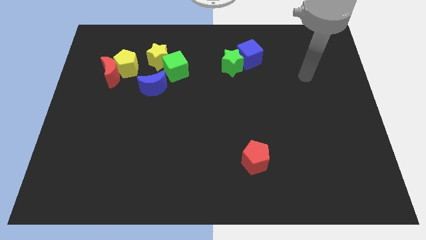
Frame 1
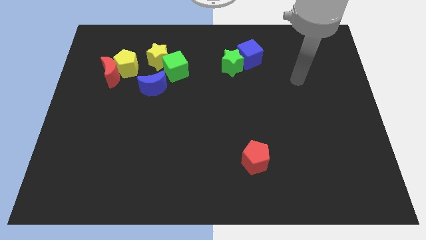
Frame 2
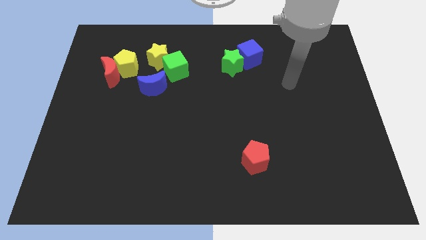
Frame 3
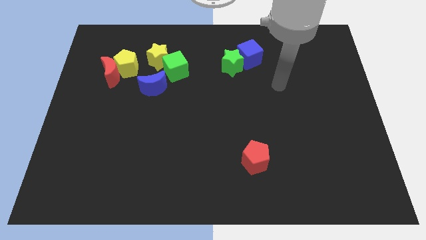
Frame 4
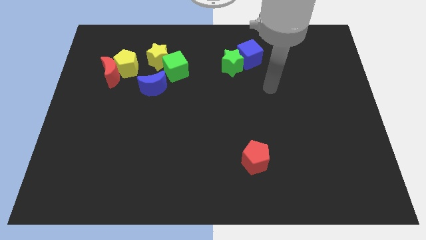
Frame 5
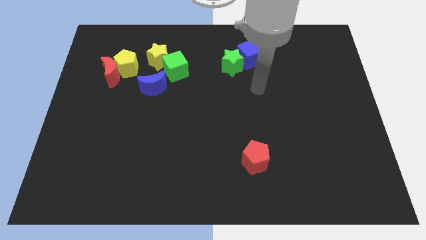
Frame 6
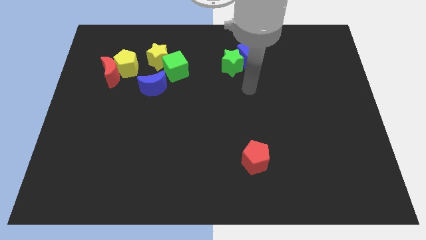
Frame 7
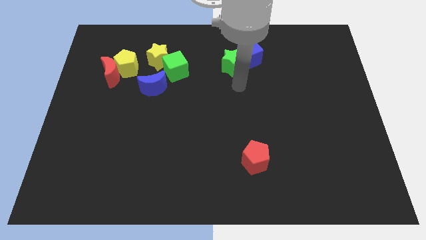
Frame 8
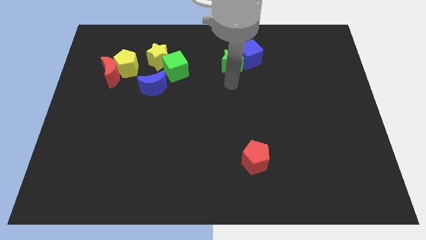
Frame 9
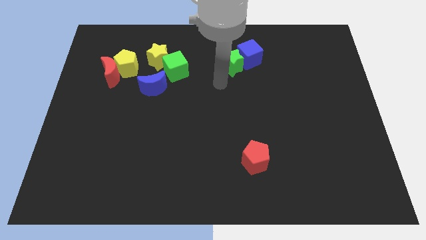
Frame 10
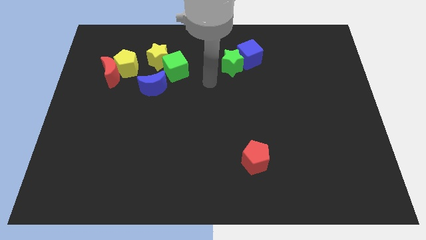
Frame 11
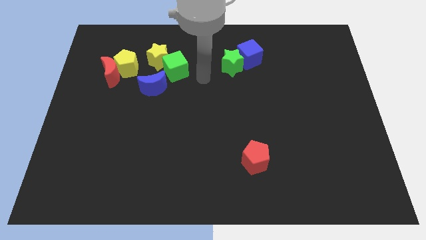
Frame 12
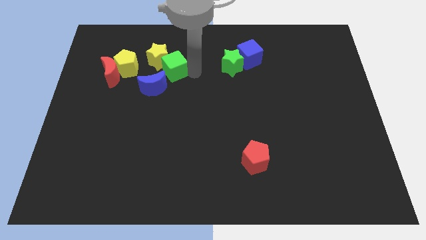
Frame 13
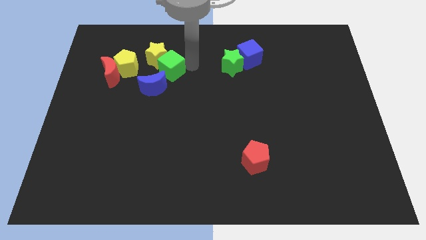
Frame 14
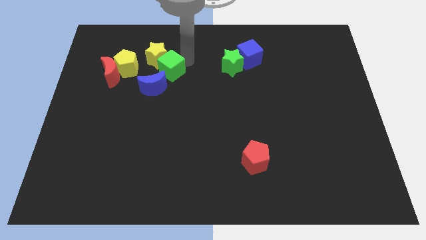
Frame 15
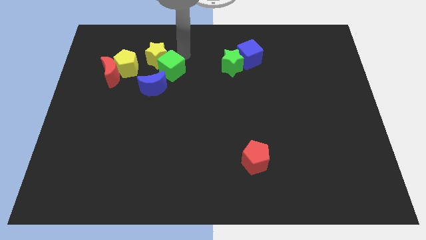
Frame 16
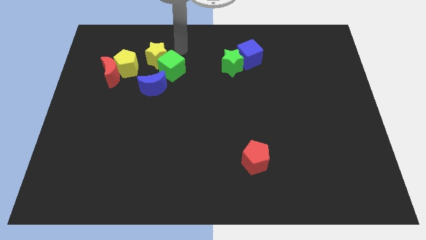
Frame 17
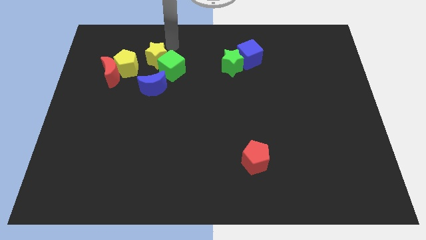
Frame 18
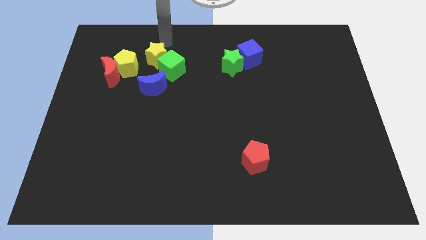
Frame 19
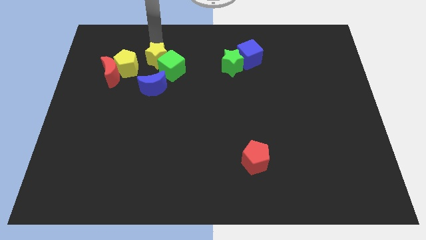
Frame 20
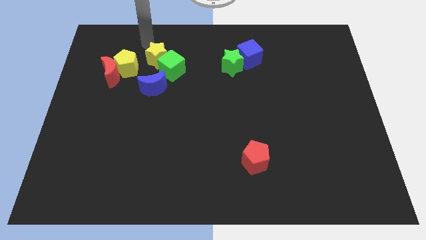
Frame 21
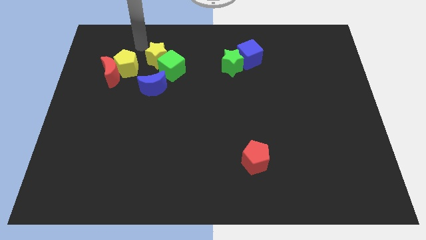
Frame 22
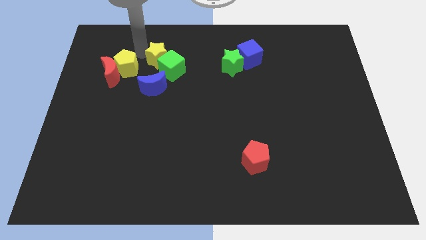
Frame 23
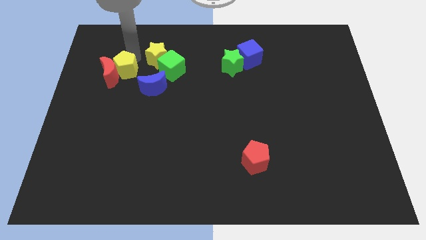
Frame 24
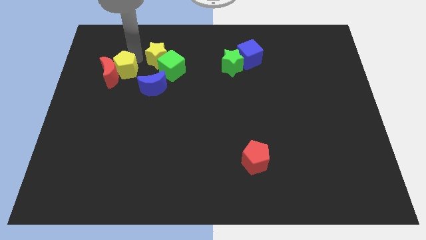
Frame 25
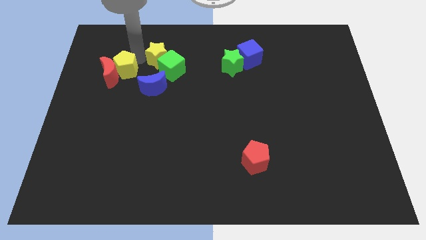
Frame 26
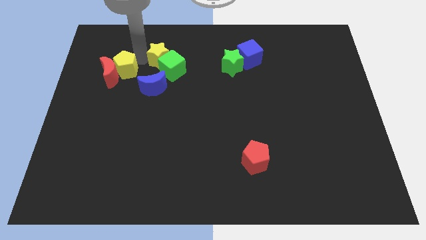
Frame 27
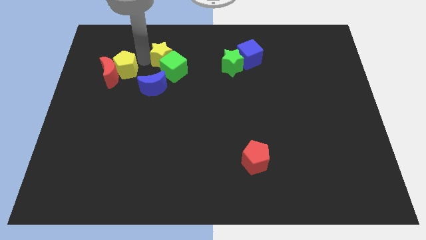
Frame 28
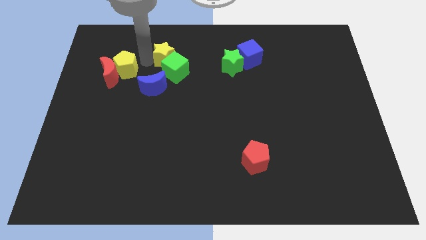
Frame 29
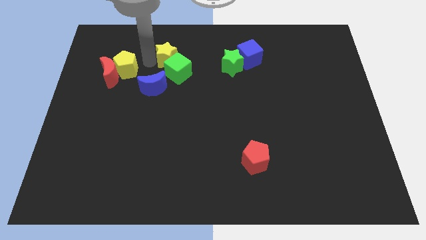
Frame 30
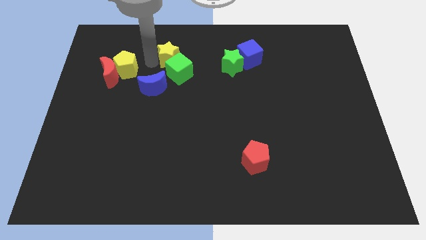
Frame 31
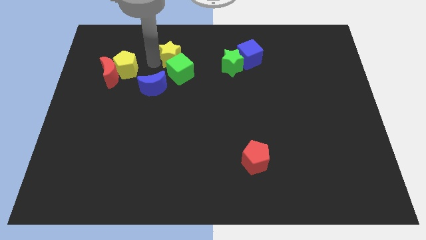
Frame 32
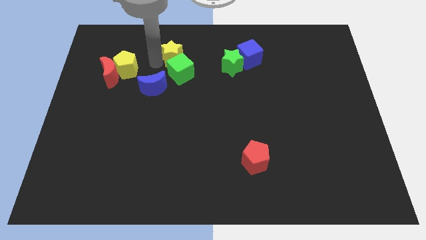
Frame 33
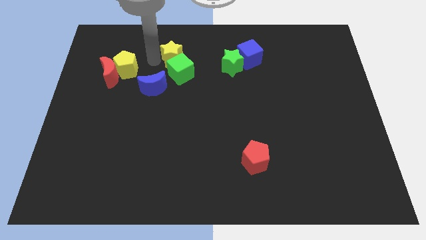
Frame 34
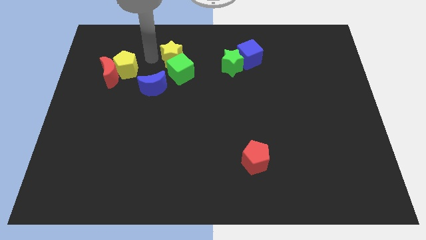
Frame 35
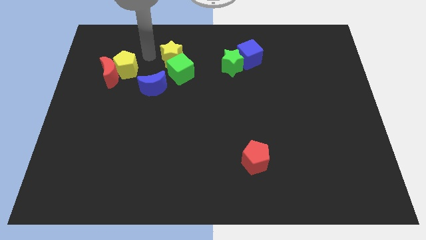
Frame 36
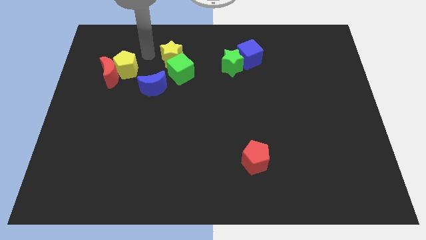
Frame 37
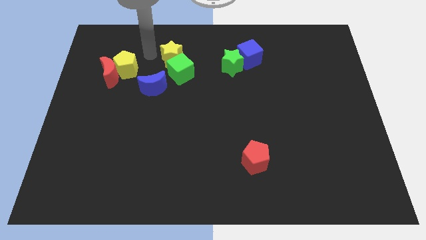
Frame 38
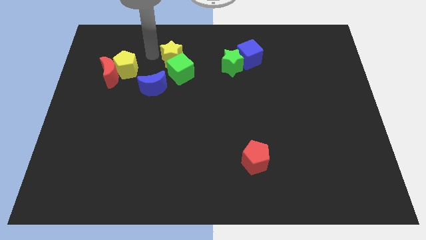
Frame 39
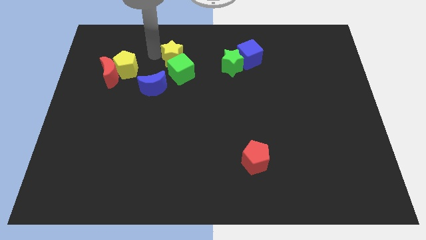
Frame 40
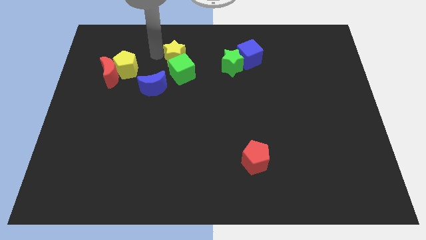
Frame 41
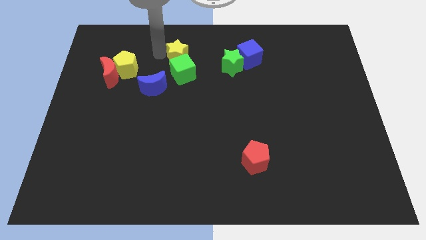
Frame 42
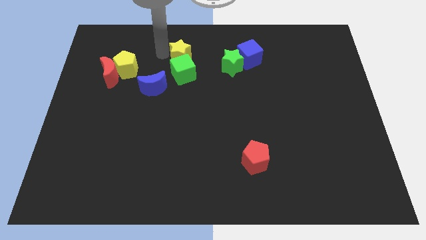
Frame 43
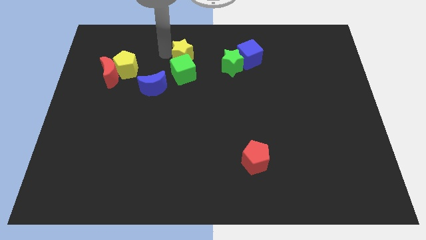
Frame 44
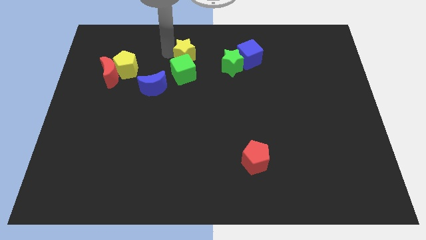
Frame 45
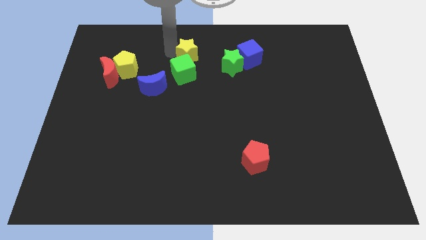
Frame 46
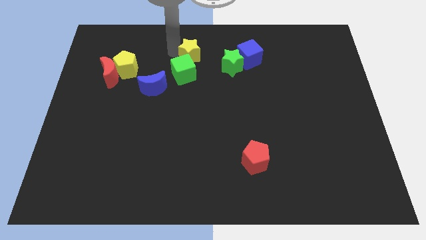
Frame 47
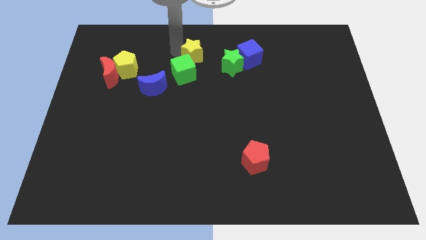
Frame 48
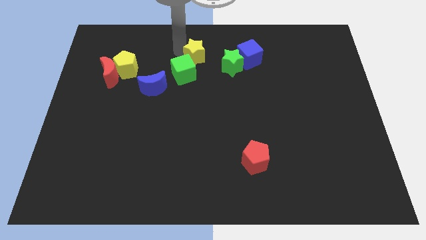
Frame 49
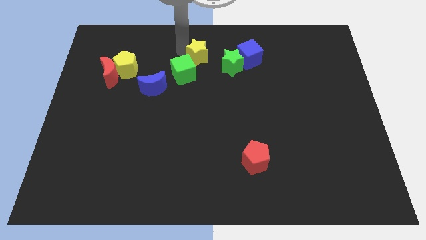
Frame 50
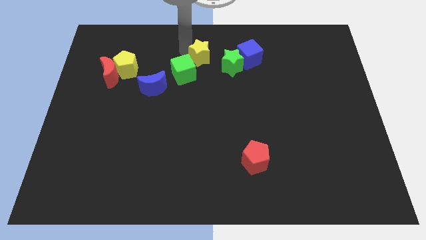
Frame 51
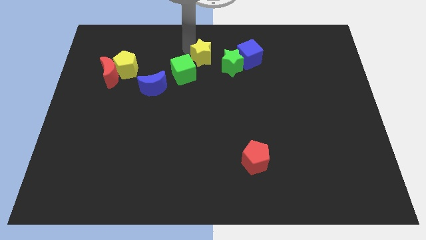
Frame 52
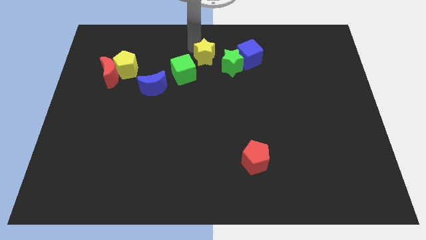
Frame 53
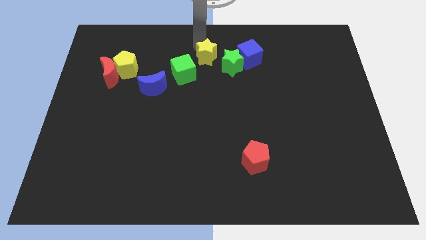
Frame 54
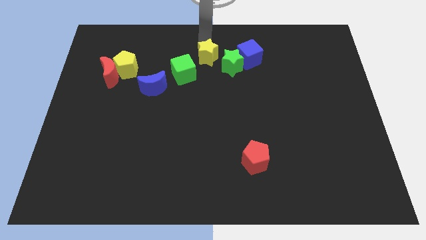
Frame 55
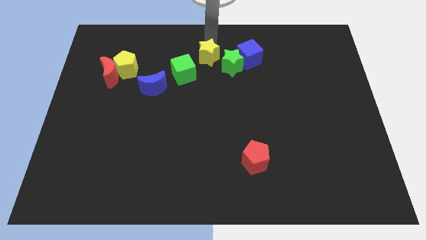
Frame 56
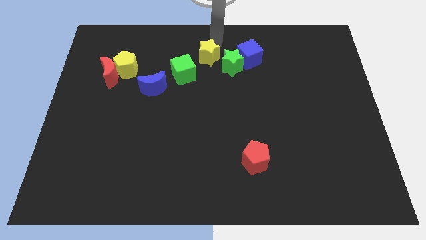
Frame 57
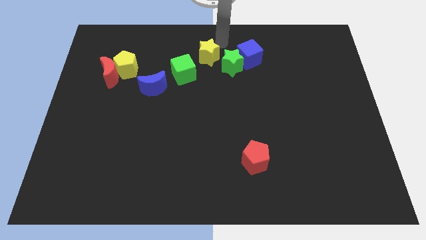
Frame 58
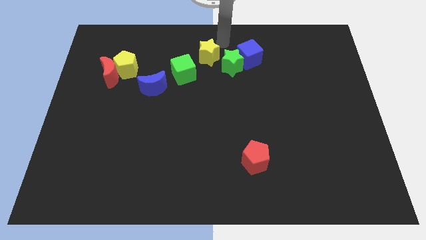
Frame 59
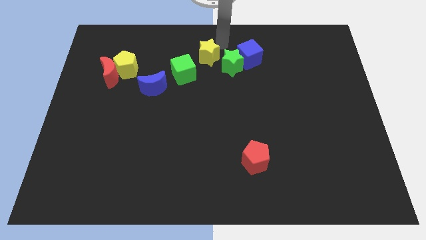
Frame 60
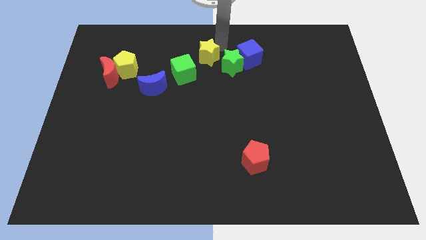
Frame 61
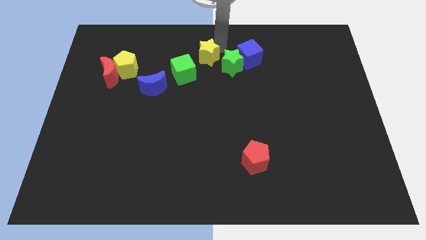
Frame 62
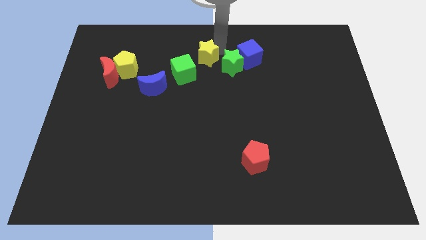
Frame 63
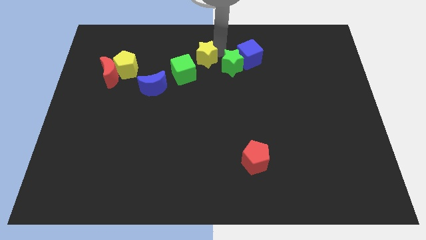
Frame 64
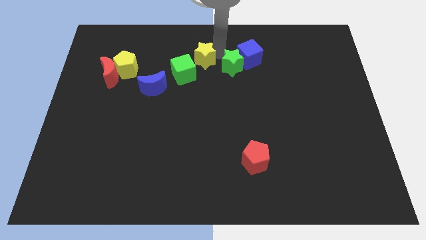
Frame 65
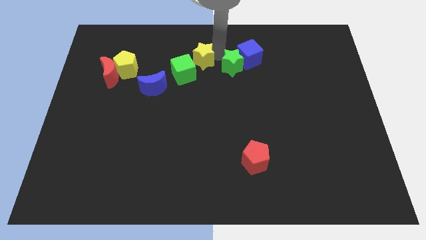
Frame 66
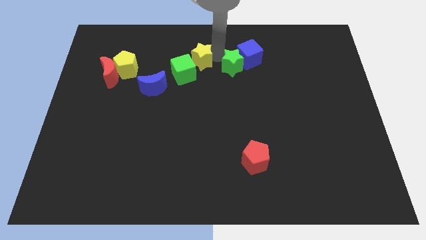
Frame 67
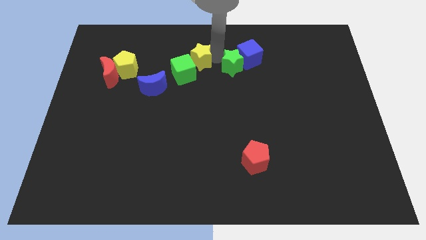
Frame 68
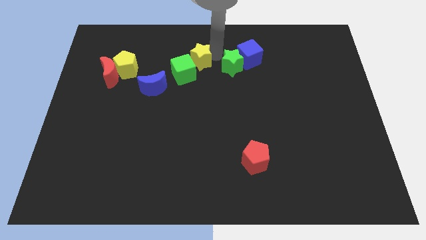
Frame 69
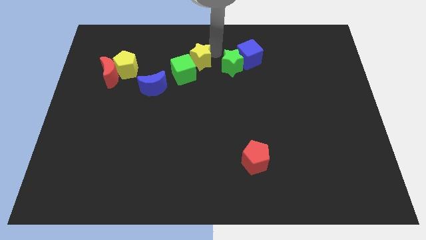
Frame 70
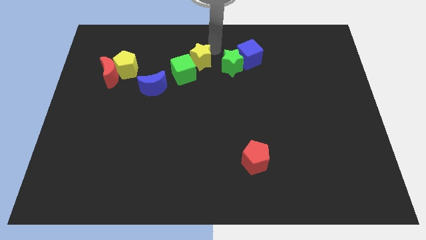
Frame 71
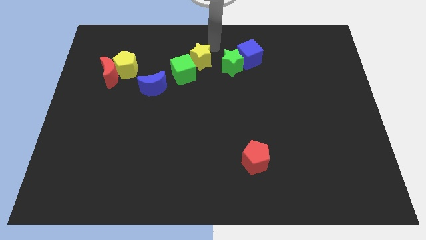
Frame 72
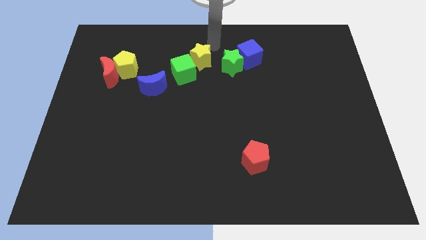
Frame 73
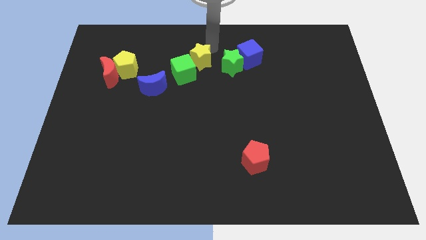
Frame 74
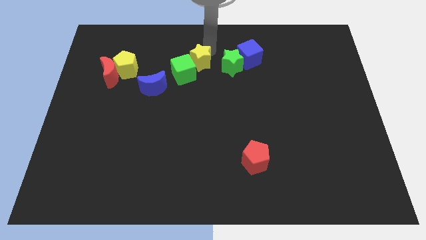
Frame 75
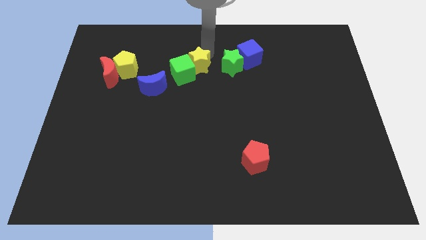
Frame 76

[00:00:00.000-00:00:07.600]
slide the yellow star to the middle of the board

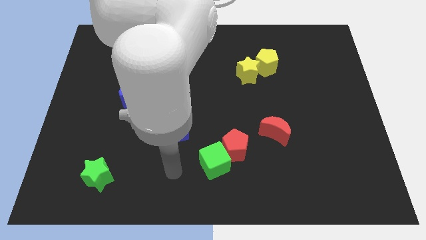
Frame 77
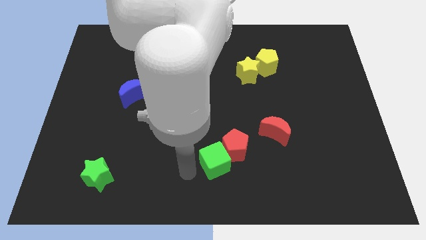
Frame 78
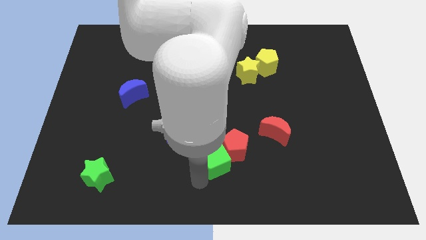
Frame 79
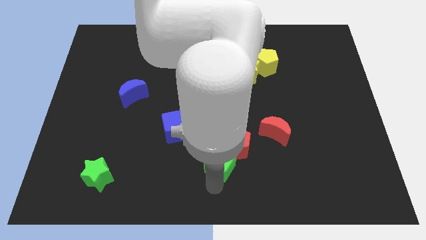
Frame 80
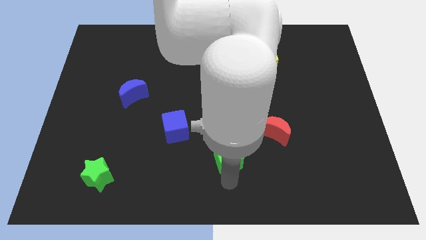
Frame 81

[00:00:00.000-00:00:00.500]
put the red pentagon to the middle
